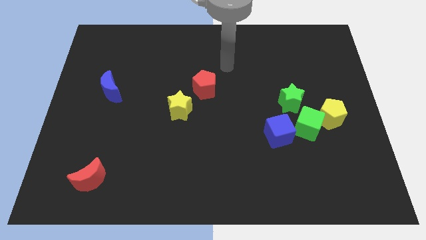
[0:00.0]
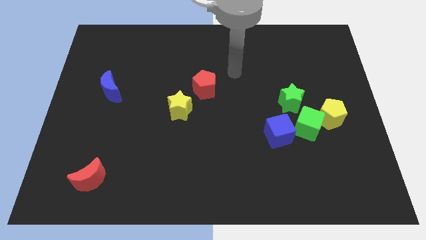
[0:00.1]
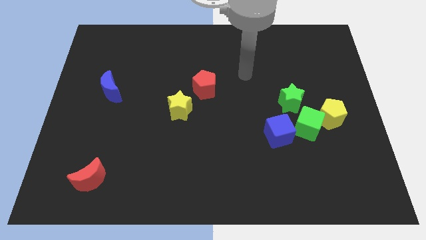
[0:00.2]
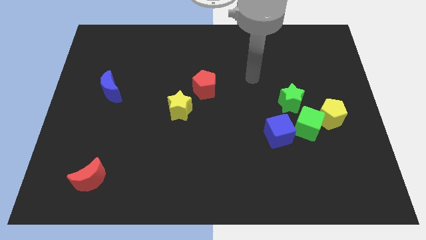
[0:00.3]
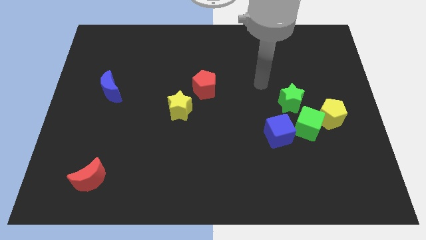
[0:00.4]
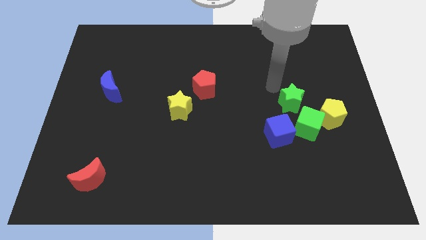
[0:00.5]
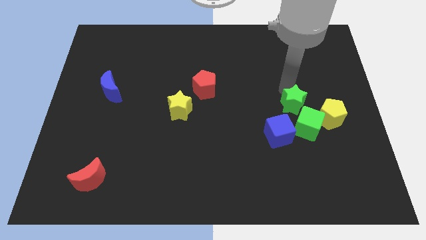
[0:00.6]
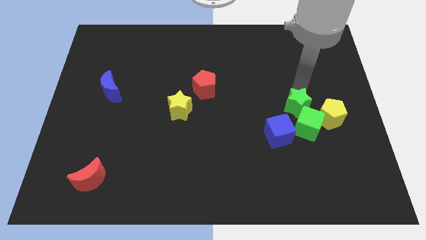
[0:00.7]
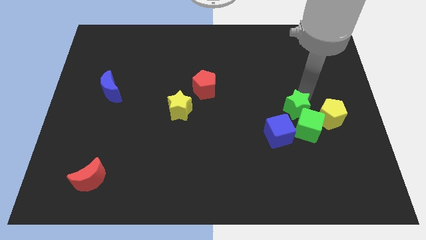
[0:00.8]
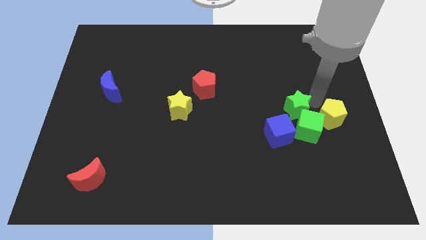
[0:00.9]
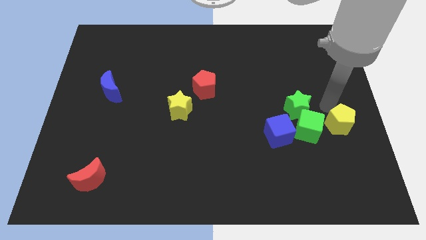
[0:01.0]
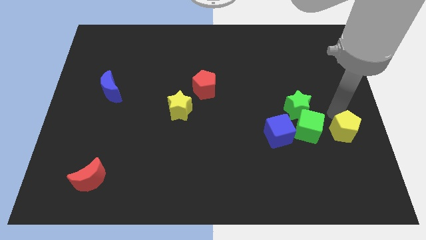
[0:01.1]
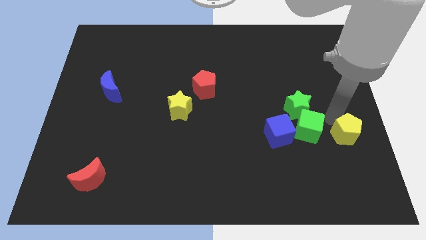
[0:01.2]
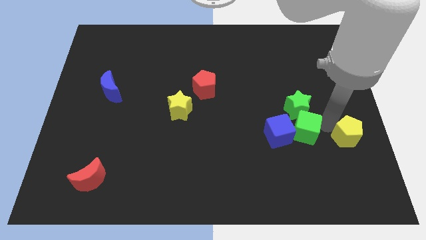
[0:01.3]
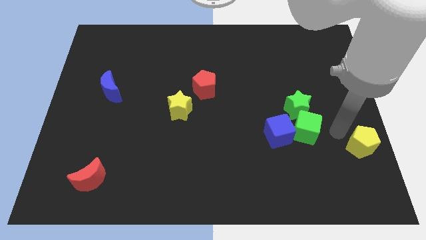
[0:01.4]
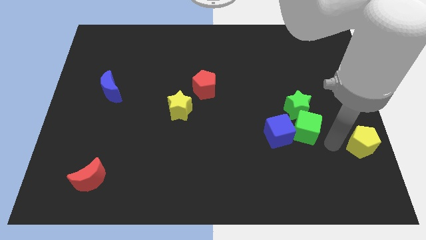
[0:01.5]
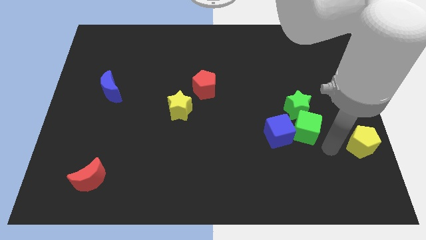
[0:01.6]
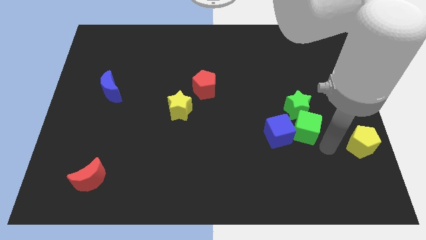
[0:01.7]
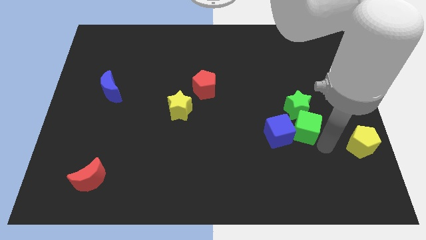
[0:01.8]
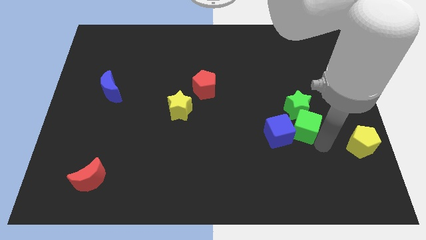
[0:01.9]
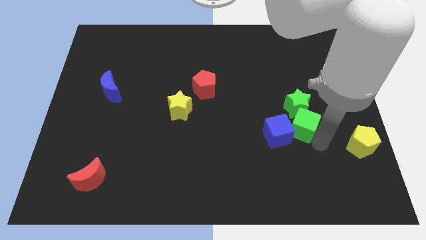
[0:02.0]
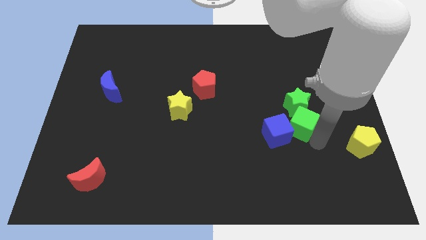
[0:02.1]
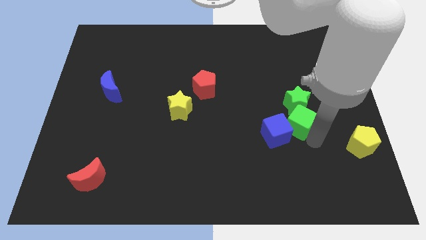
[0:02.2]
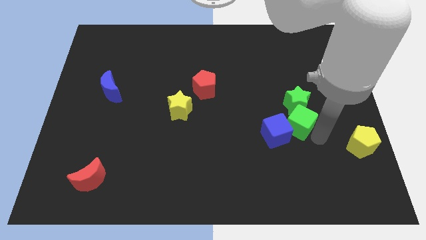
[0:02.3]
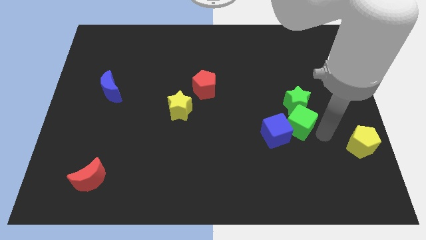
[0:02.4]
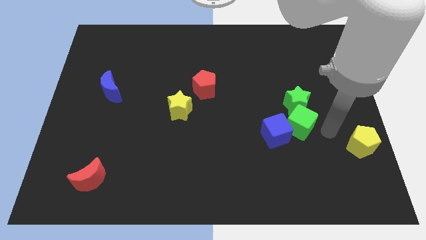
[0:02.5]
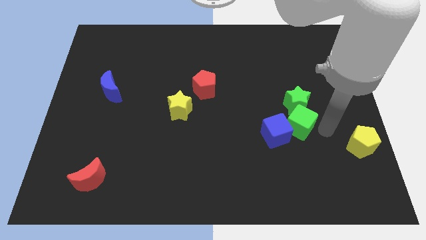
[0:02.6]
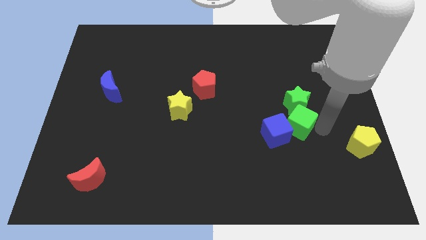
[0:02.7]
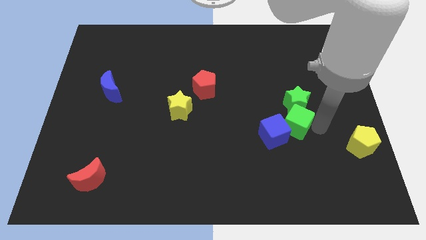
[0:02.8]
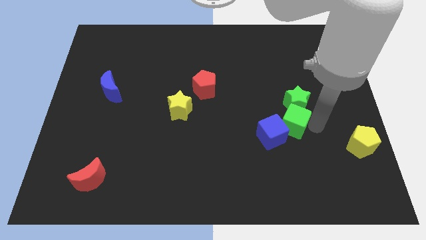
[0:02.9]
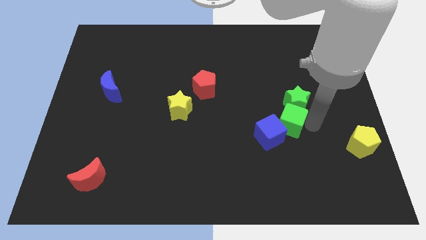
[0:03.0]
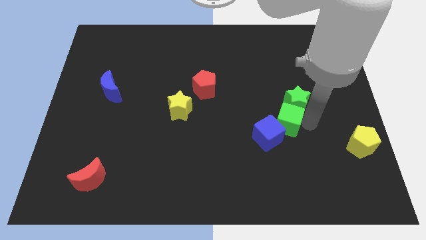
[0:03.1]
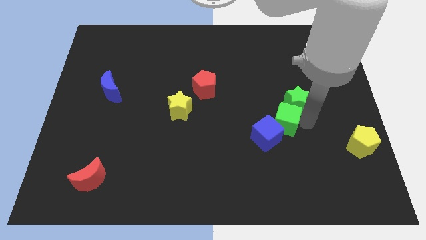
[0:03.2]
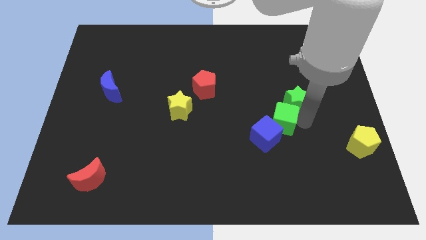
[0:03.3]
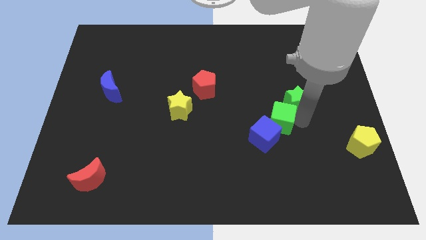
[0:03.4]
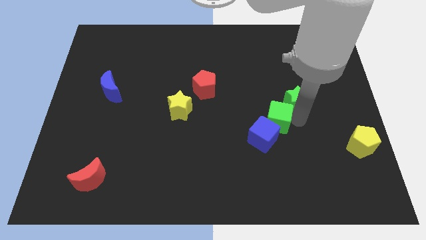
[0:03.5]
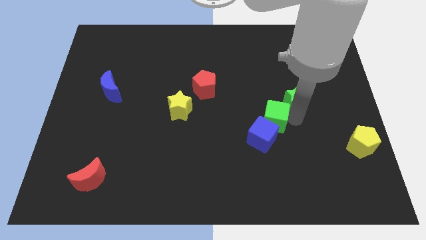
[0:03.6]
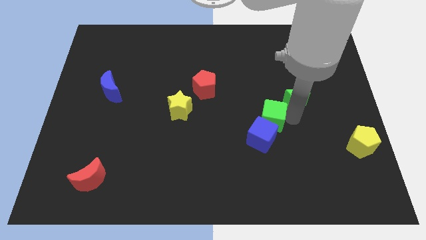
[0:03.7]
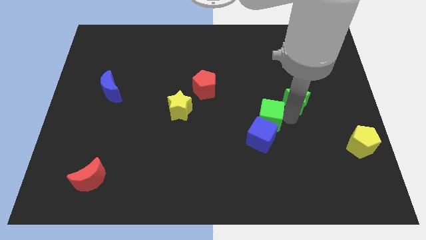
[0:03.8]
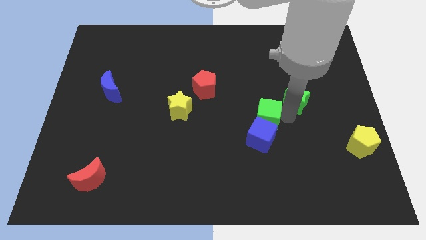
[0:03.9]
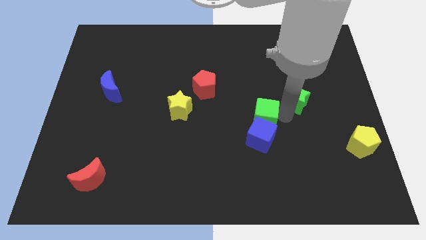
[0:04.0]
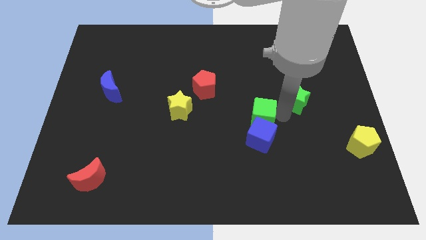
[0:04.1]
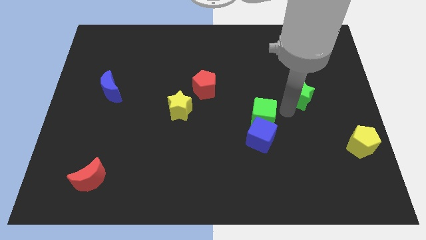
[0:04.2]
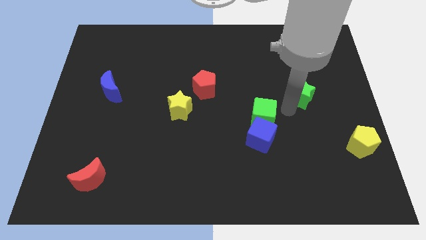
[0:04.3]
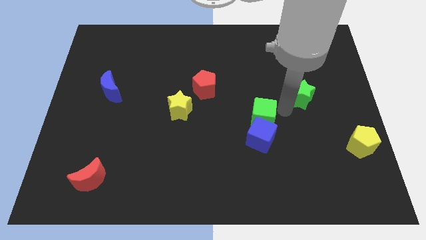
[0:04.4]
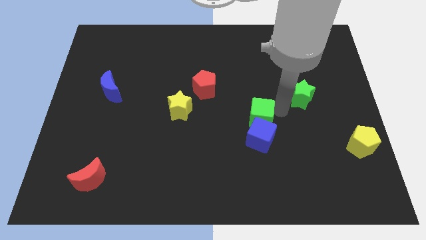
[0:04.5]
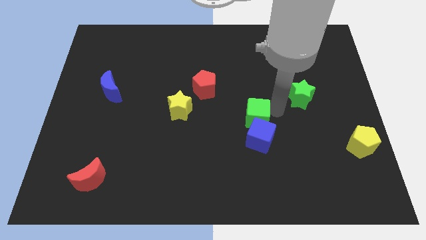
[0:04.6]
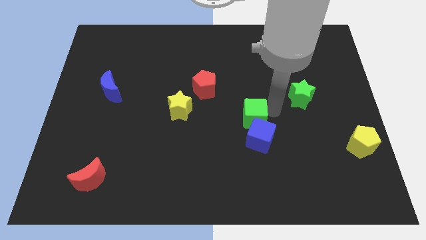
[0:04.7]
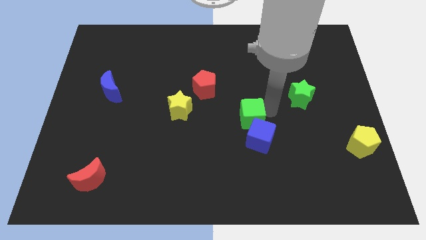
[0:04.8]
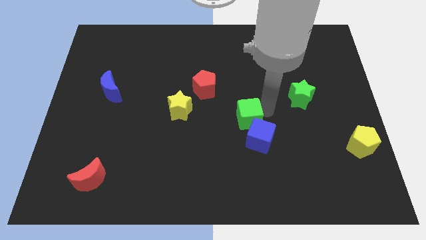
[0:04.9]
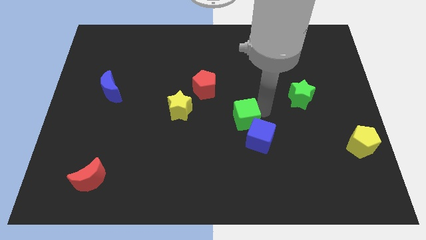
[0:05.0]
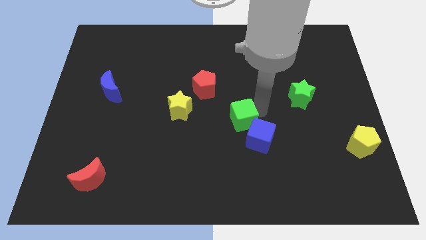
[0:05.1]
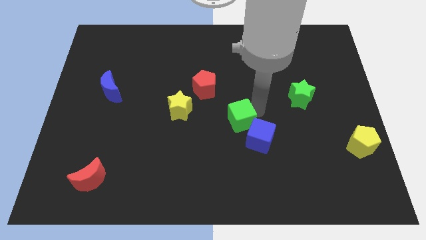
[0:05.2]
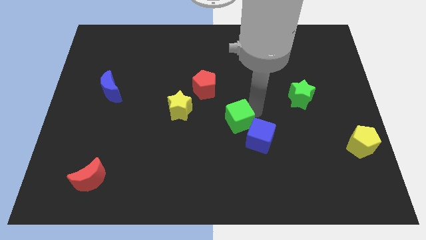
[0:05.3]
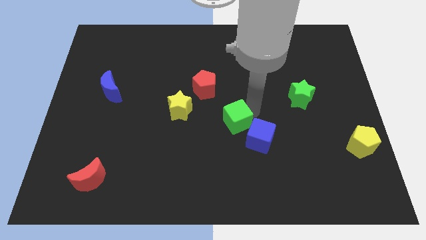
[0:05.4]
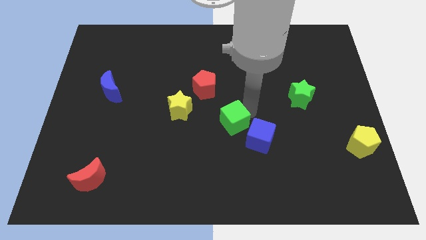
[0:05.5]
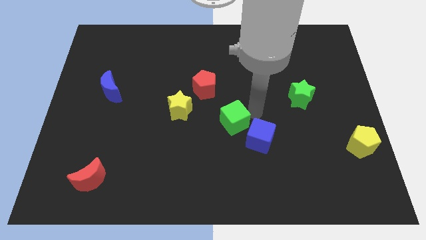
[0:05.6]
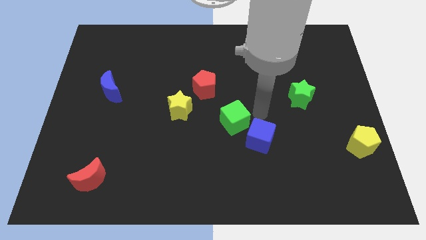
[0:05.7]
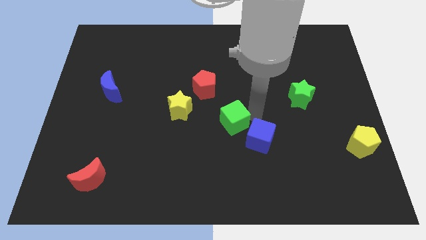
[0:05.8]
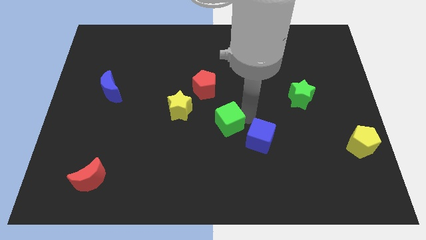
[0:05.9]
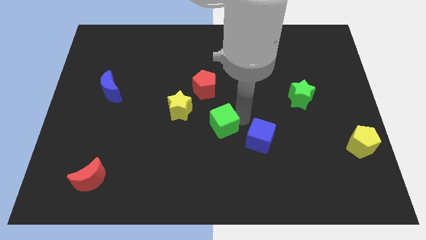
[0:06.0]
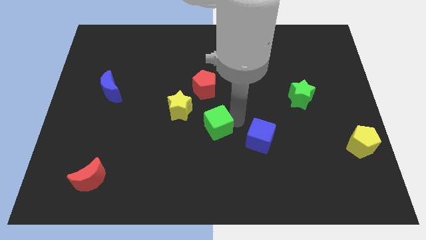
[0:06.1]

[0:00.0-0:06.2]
move the green cube to the left

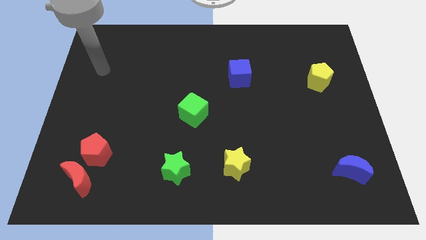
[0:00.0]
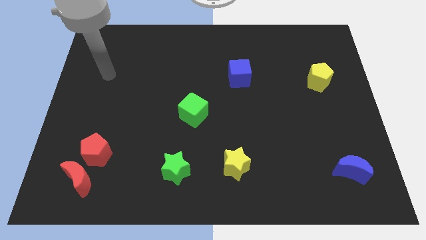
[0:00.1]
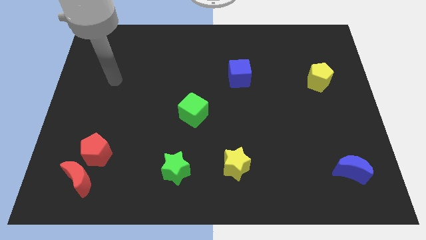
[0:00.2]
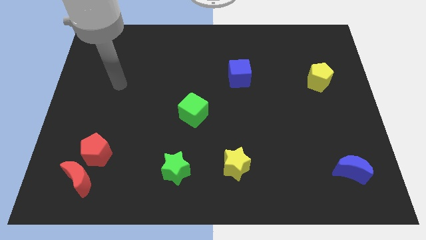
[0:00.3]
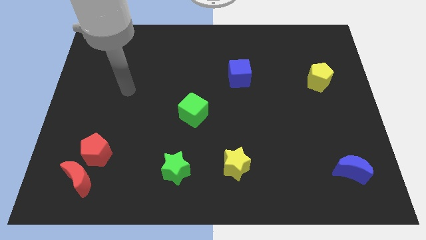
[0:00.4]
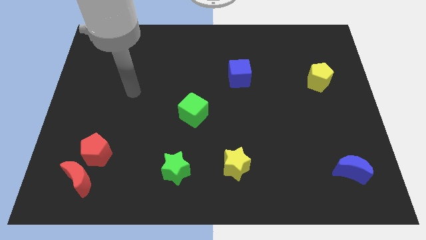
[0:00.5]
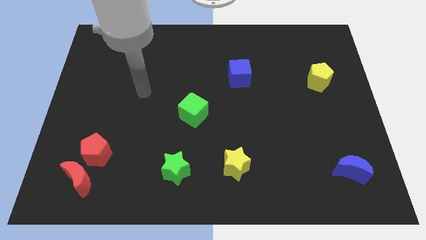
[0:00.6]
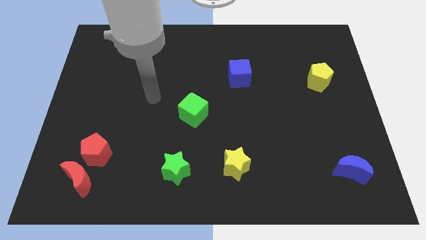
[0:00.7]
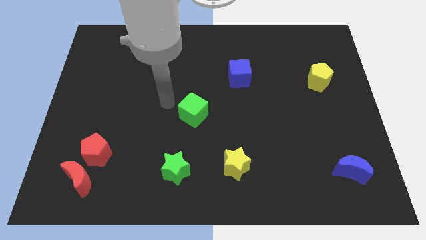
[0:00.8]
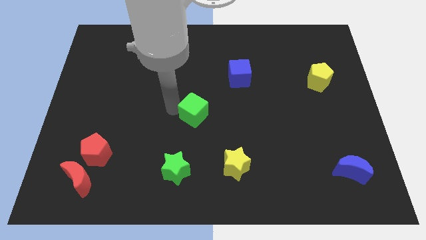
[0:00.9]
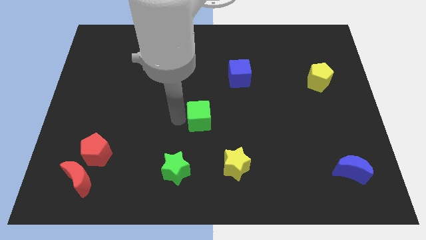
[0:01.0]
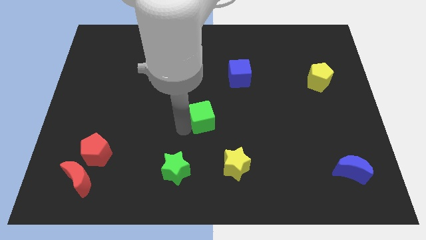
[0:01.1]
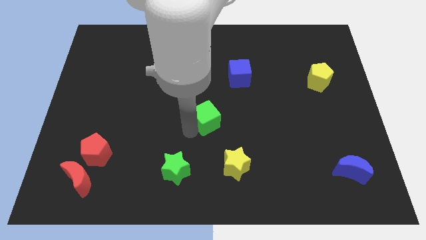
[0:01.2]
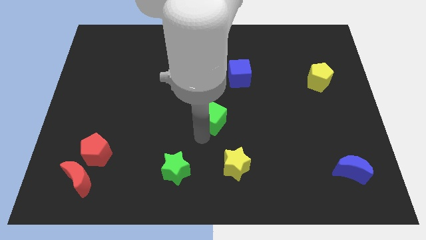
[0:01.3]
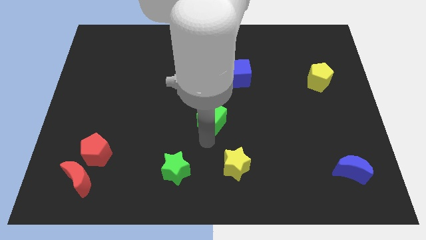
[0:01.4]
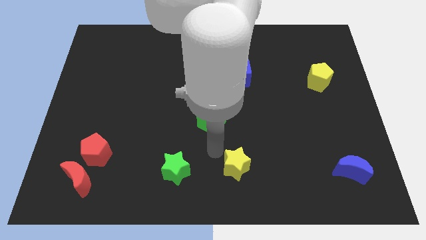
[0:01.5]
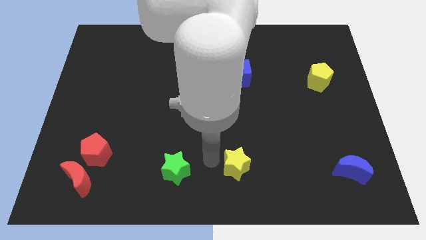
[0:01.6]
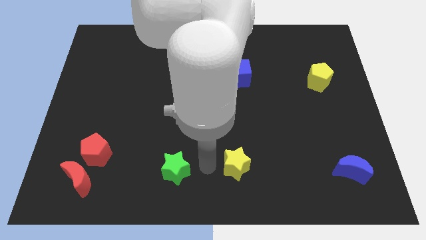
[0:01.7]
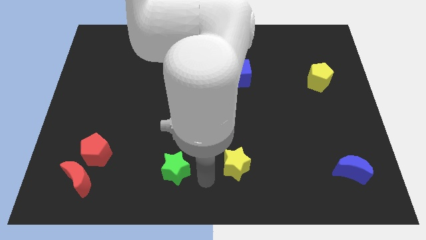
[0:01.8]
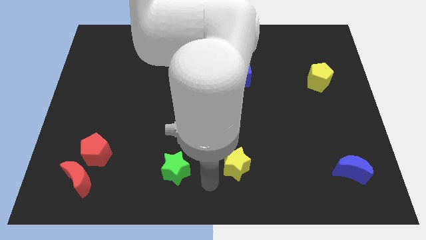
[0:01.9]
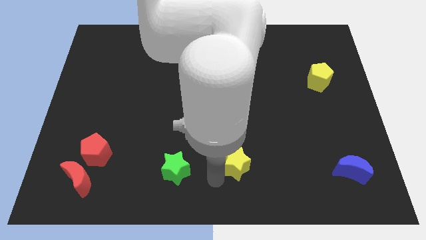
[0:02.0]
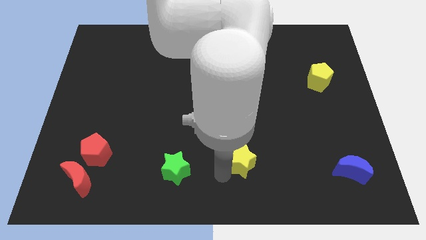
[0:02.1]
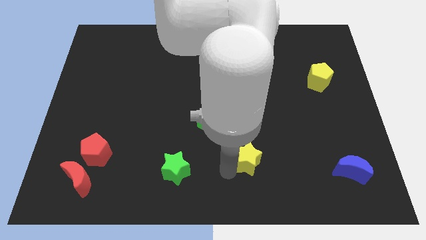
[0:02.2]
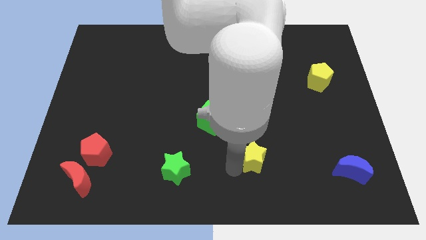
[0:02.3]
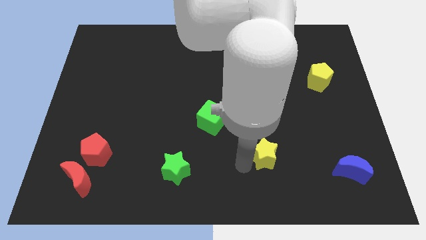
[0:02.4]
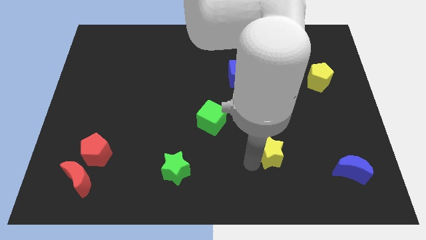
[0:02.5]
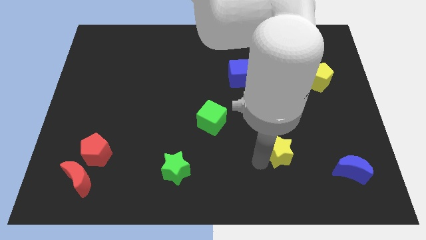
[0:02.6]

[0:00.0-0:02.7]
move the yellow star slightly up and then to the right
